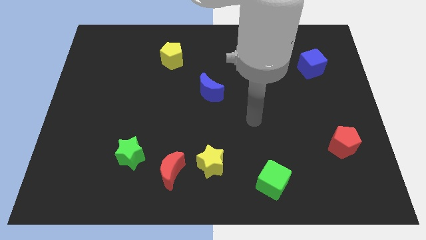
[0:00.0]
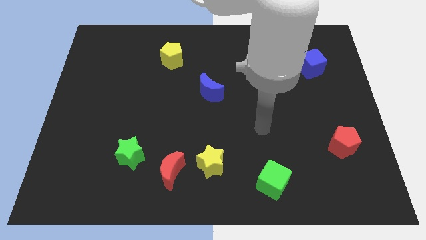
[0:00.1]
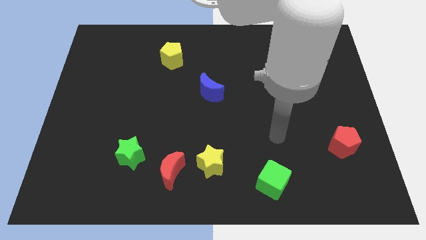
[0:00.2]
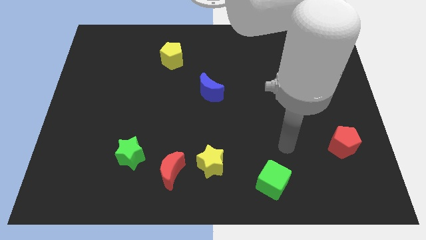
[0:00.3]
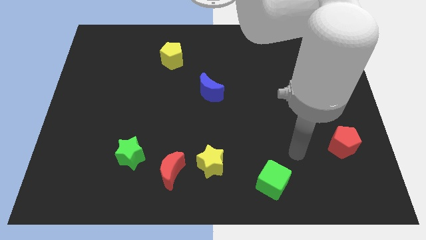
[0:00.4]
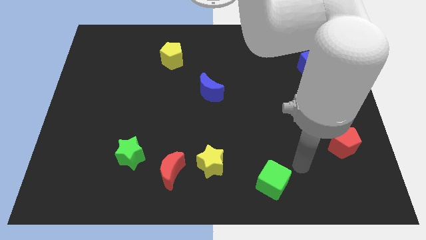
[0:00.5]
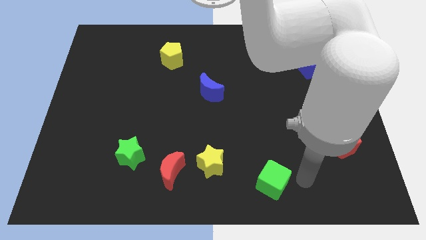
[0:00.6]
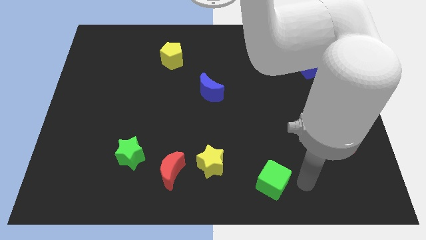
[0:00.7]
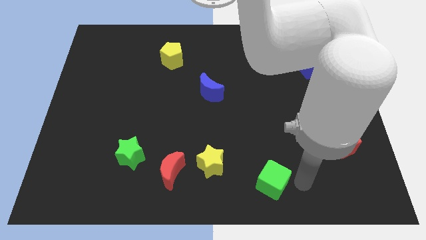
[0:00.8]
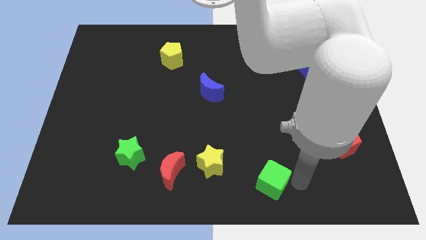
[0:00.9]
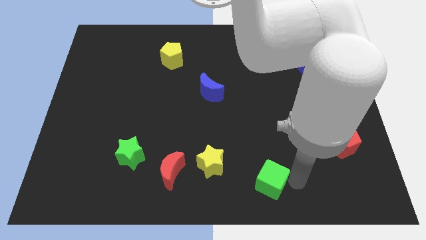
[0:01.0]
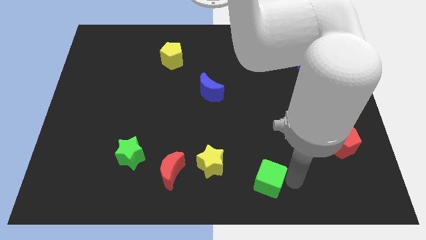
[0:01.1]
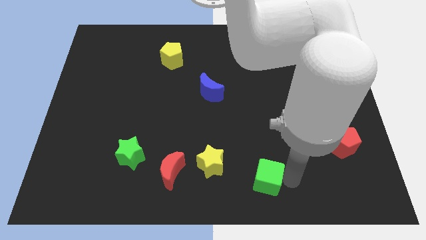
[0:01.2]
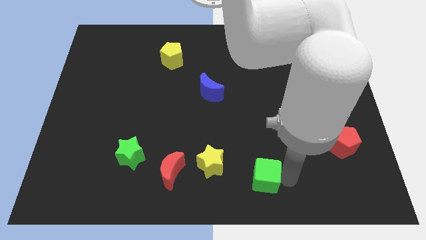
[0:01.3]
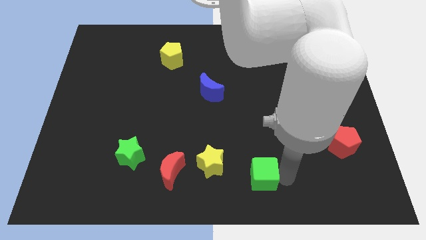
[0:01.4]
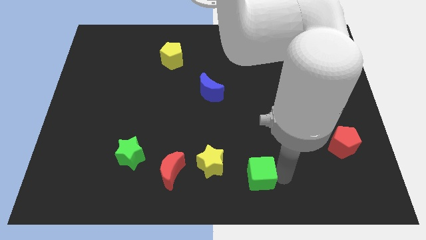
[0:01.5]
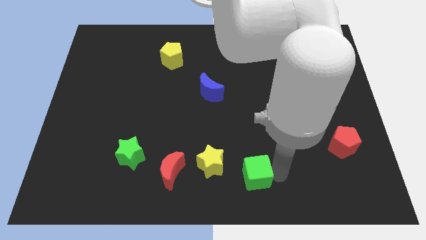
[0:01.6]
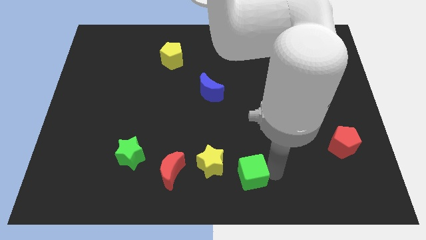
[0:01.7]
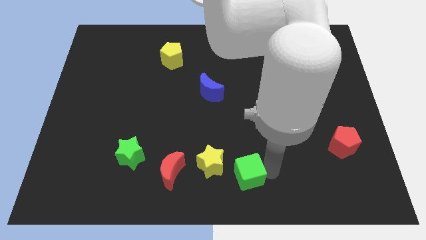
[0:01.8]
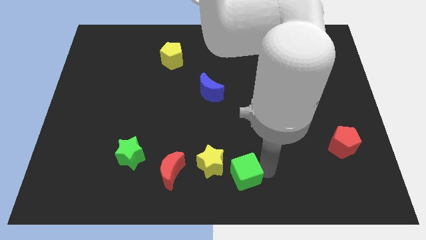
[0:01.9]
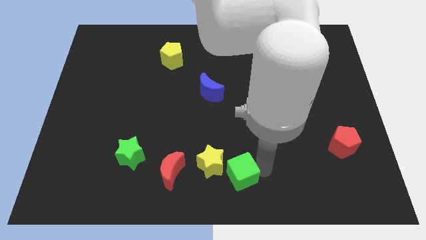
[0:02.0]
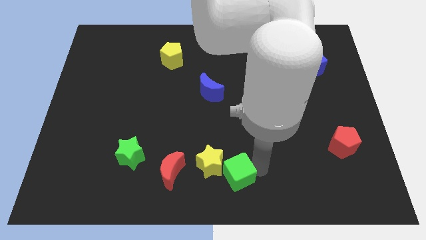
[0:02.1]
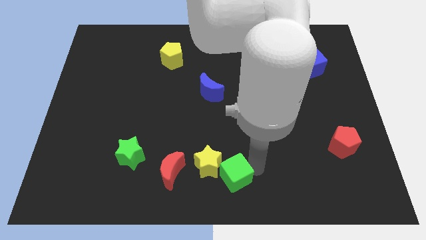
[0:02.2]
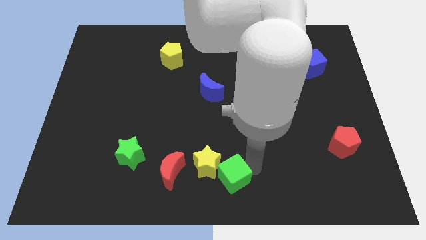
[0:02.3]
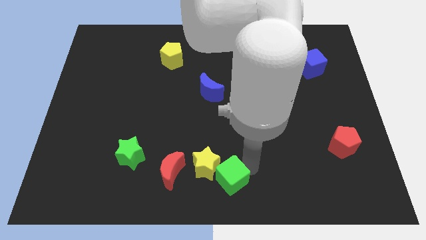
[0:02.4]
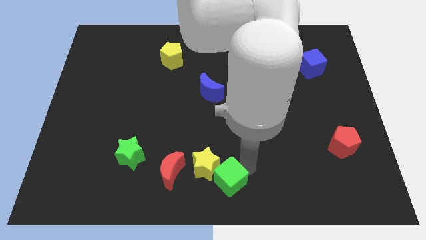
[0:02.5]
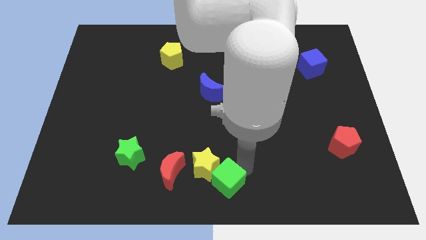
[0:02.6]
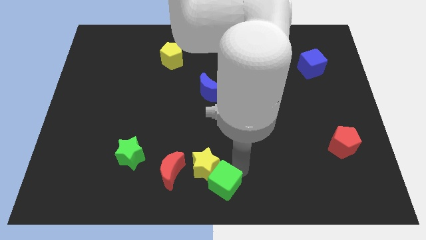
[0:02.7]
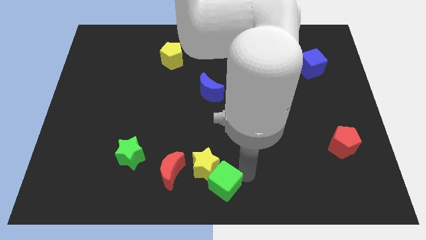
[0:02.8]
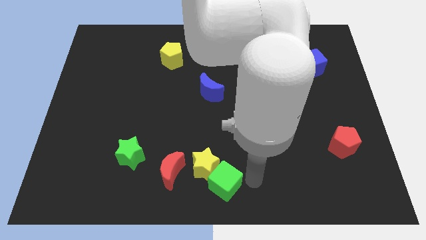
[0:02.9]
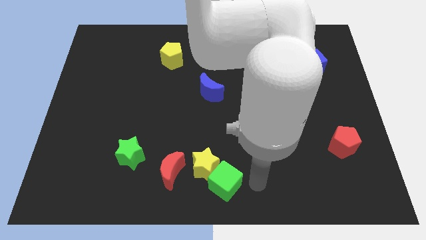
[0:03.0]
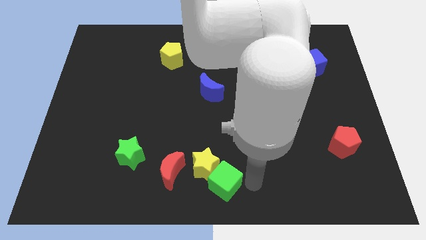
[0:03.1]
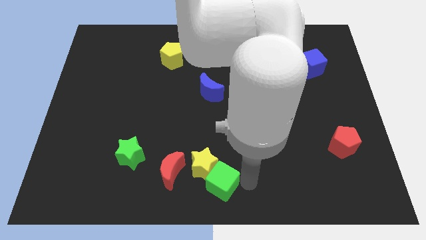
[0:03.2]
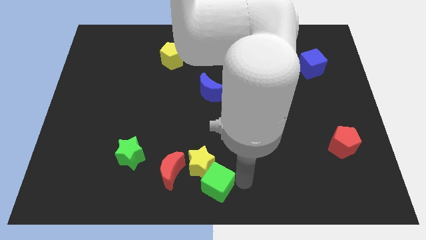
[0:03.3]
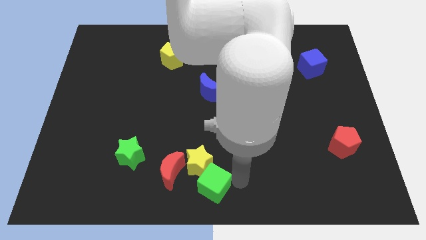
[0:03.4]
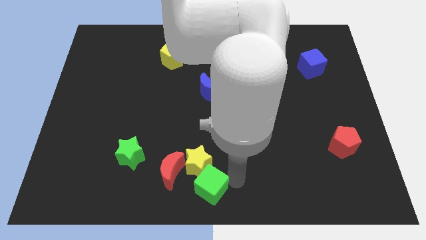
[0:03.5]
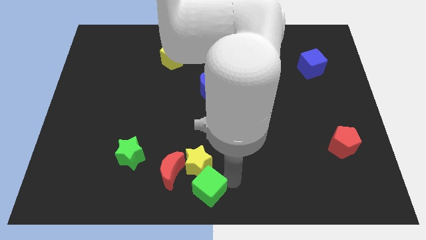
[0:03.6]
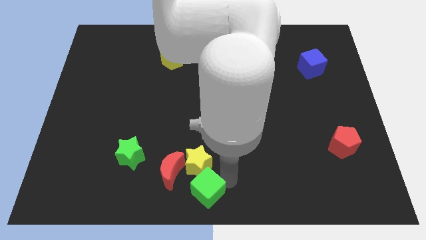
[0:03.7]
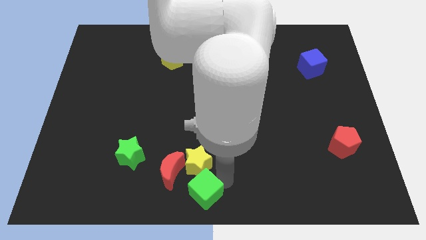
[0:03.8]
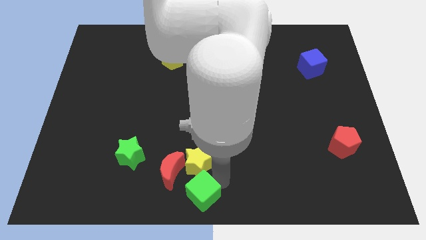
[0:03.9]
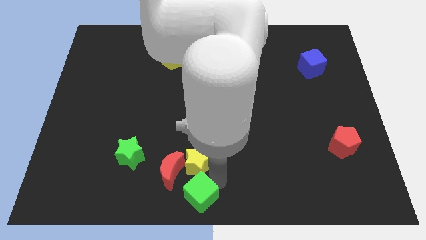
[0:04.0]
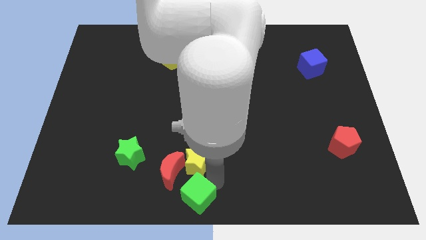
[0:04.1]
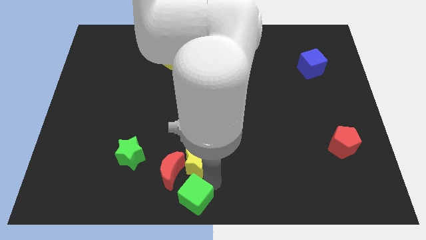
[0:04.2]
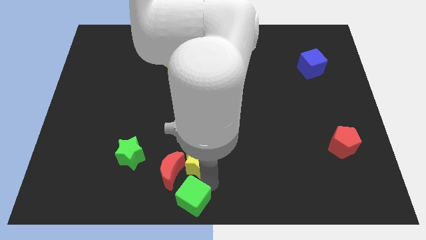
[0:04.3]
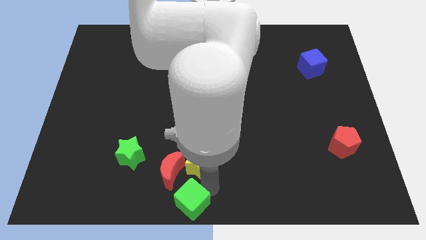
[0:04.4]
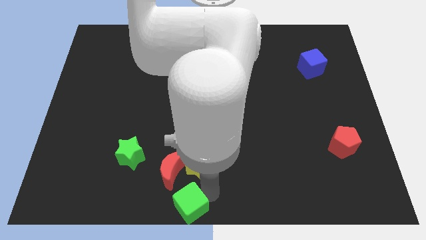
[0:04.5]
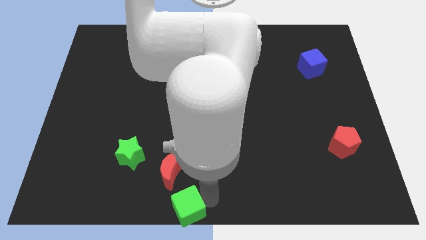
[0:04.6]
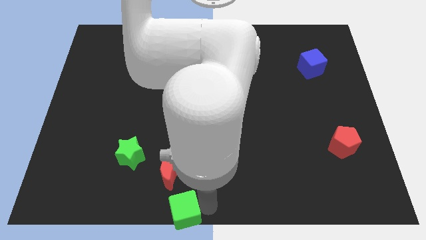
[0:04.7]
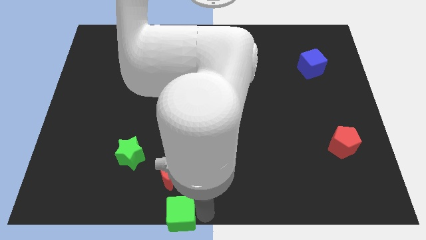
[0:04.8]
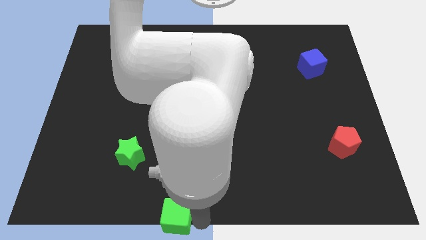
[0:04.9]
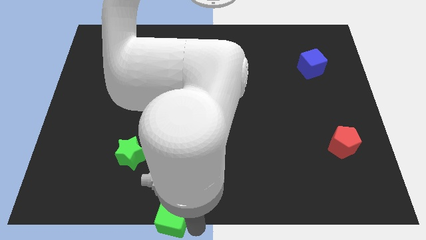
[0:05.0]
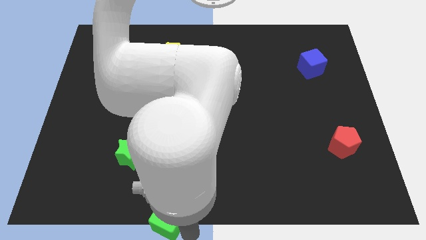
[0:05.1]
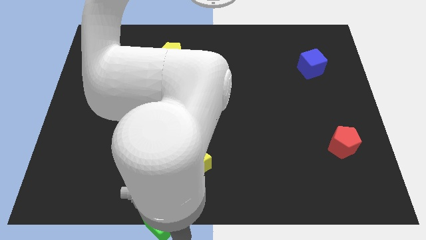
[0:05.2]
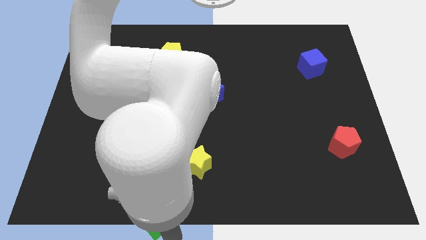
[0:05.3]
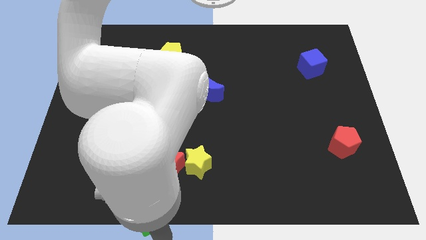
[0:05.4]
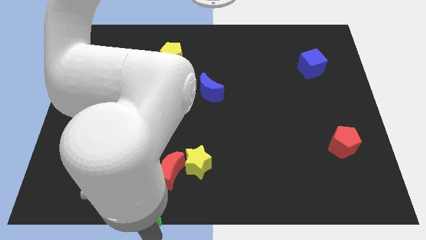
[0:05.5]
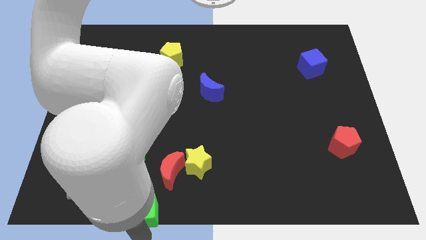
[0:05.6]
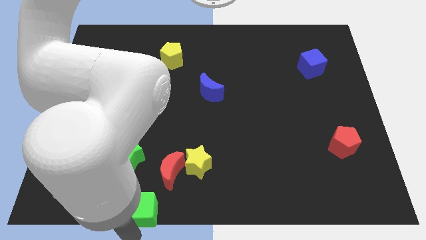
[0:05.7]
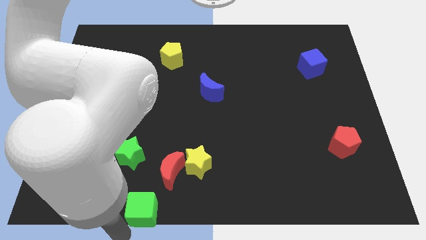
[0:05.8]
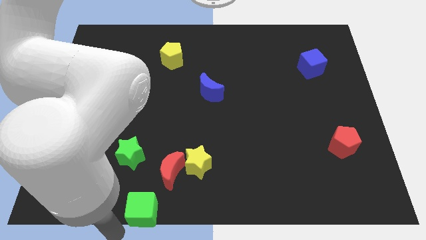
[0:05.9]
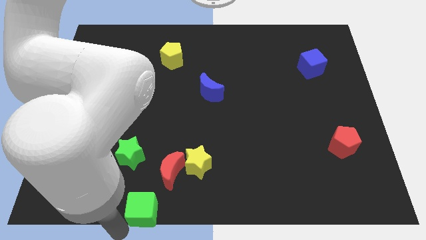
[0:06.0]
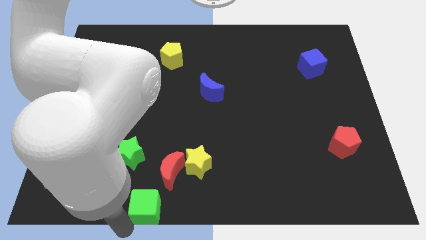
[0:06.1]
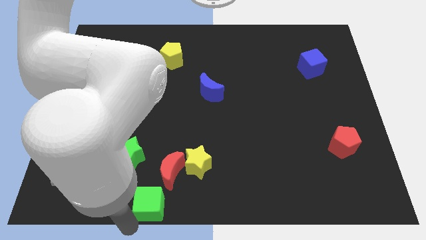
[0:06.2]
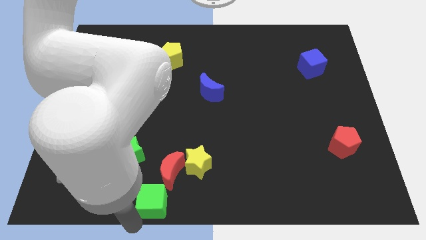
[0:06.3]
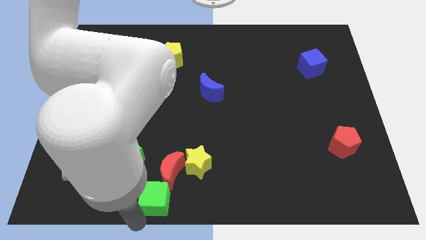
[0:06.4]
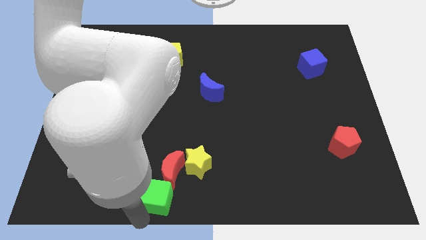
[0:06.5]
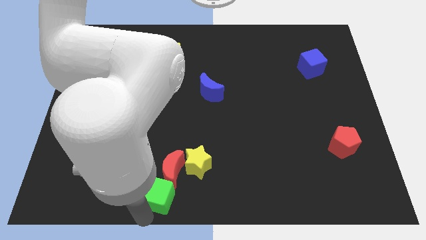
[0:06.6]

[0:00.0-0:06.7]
move the green cube close to the red moon
